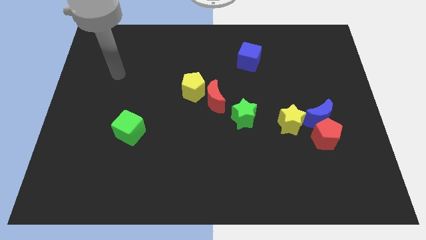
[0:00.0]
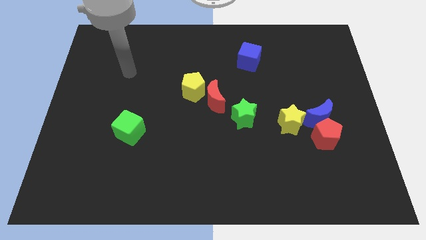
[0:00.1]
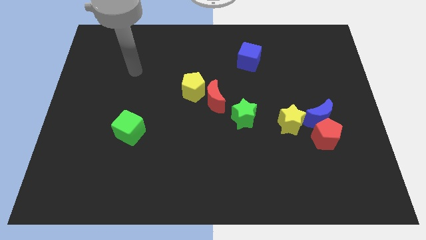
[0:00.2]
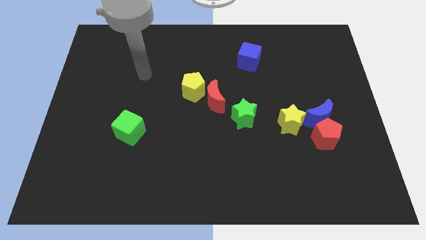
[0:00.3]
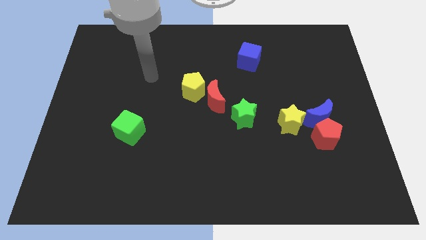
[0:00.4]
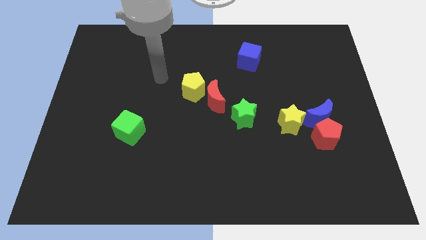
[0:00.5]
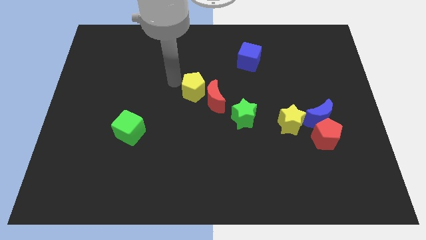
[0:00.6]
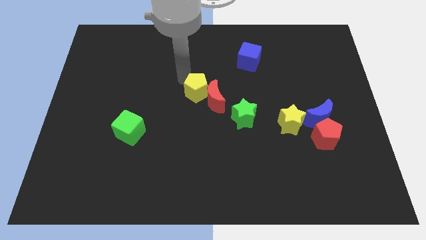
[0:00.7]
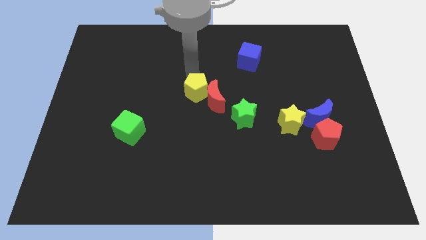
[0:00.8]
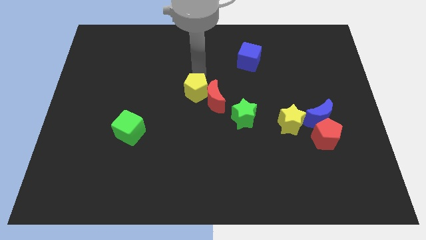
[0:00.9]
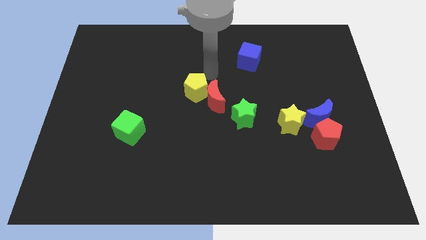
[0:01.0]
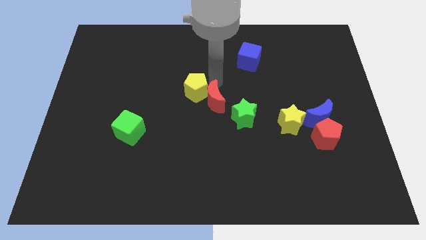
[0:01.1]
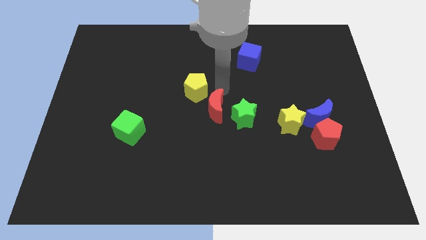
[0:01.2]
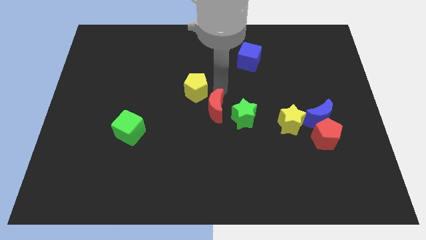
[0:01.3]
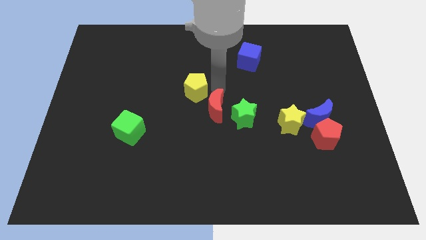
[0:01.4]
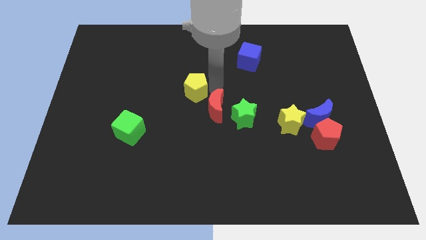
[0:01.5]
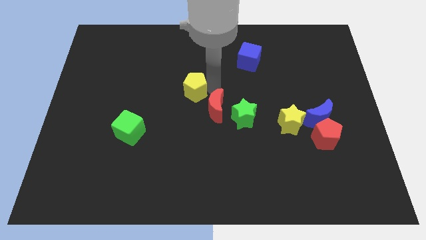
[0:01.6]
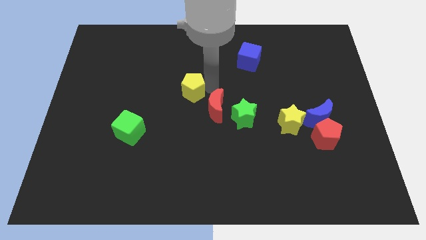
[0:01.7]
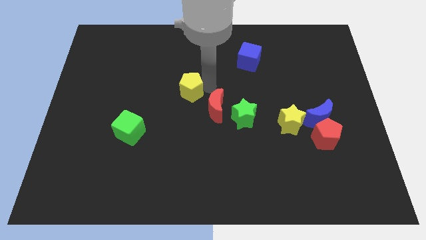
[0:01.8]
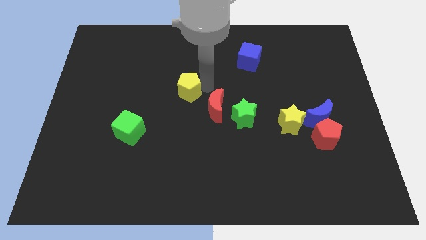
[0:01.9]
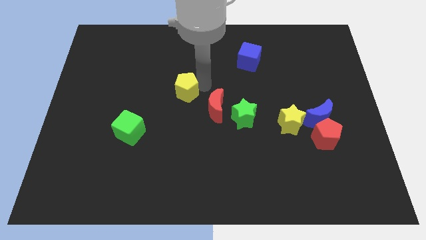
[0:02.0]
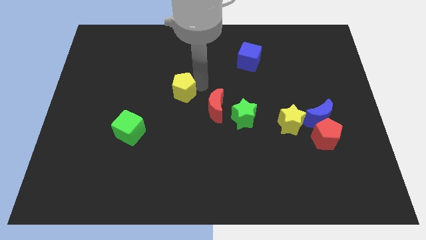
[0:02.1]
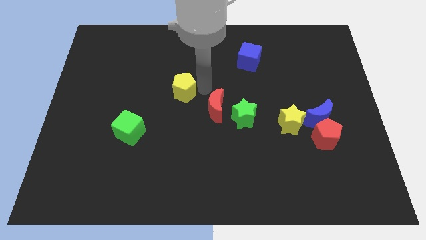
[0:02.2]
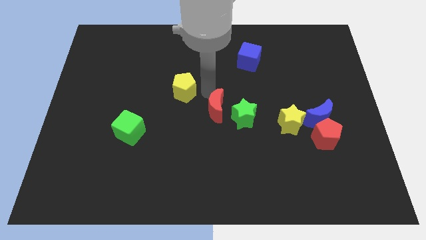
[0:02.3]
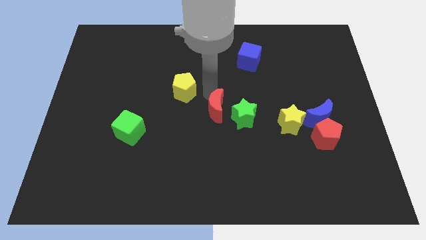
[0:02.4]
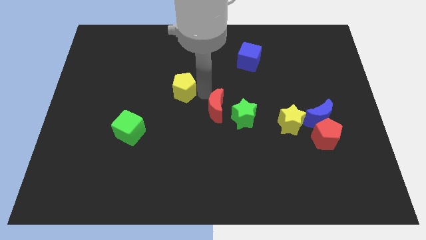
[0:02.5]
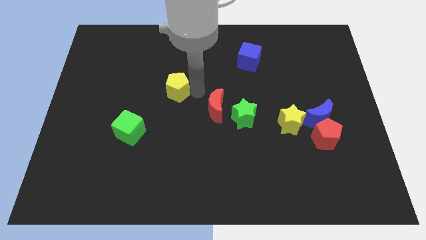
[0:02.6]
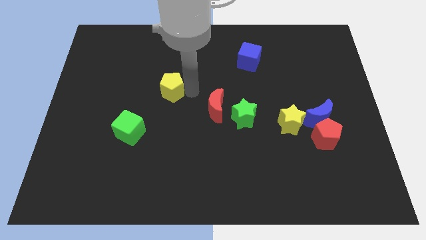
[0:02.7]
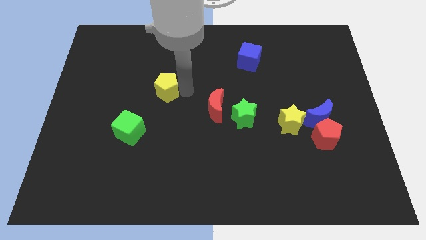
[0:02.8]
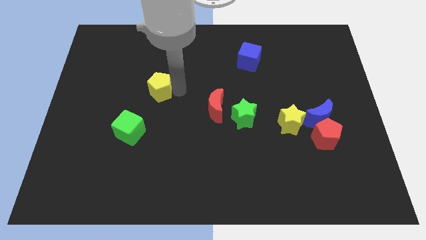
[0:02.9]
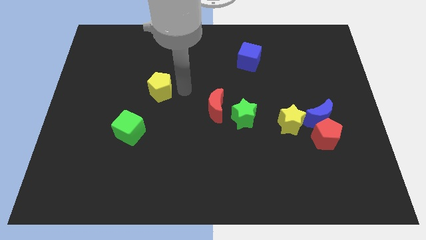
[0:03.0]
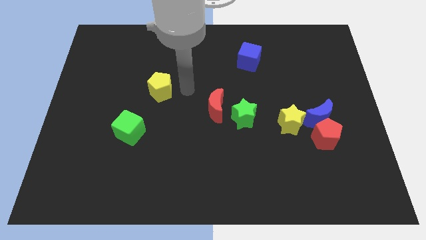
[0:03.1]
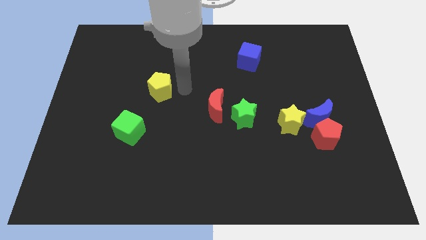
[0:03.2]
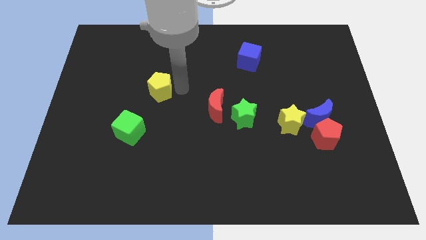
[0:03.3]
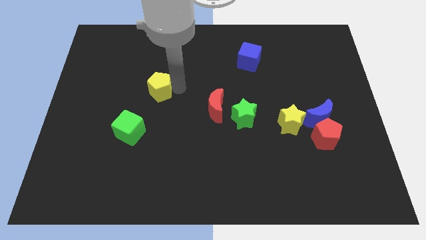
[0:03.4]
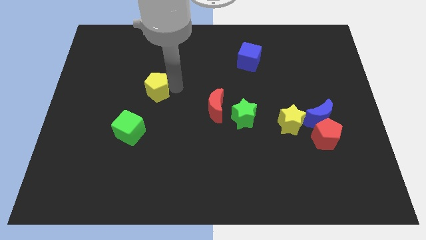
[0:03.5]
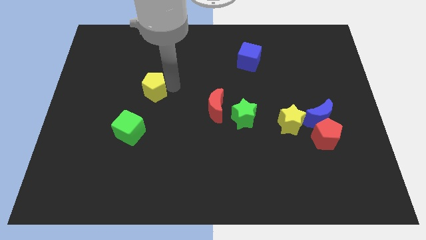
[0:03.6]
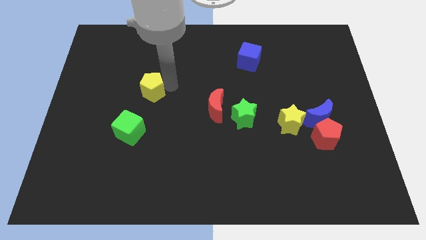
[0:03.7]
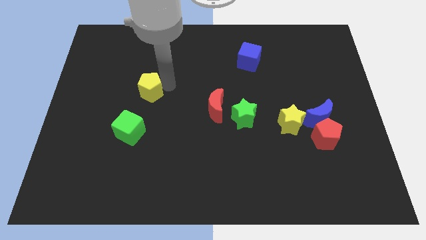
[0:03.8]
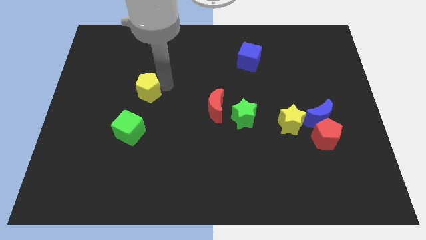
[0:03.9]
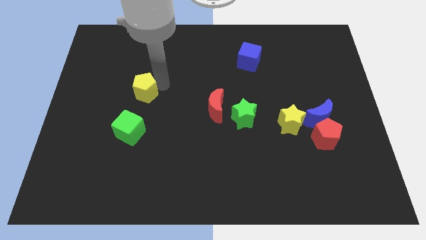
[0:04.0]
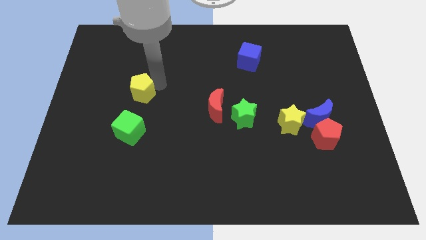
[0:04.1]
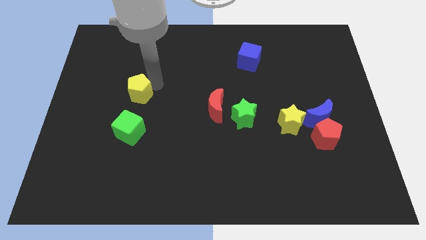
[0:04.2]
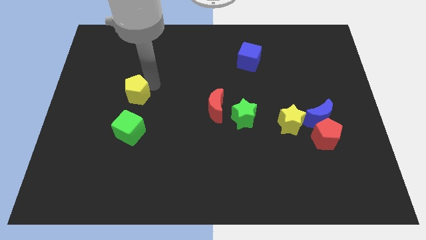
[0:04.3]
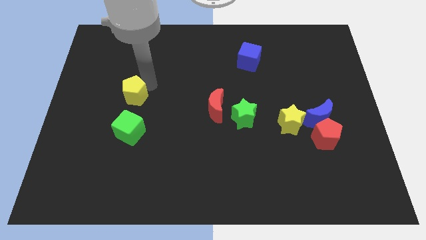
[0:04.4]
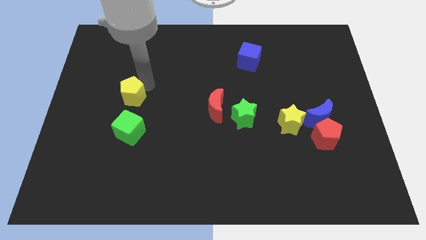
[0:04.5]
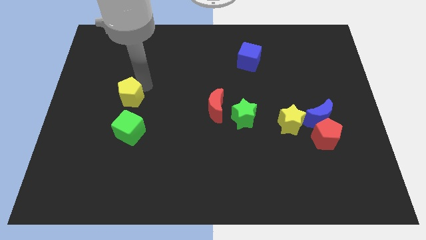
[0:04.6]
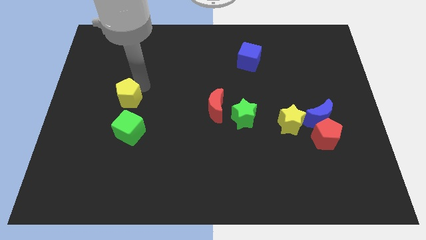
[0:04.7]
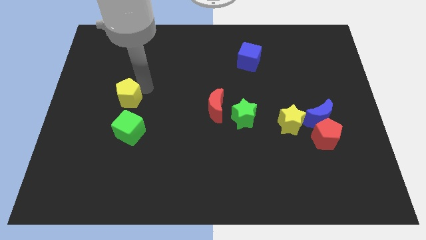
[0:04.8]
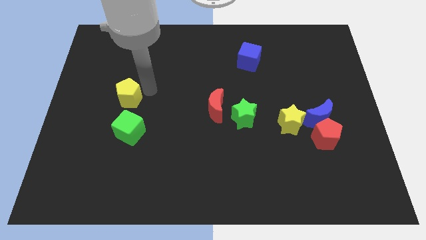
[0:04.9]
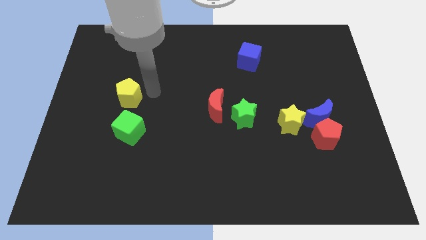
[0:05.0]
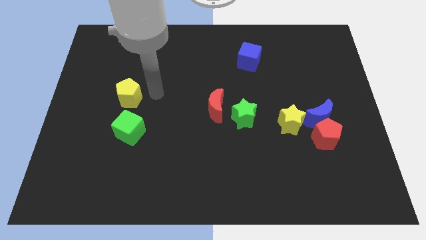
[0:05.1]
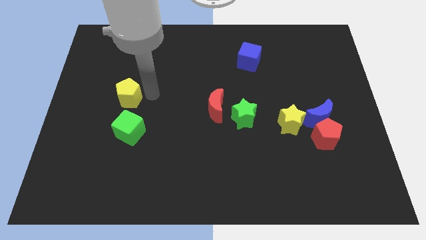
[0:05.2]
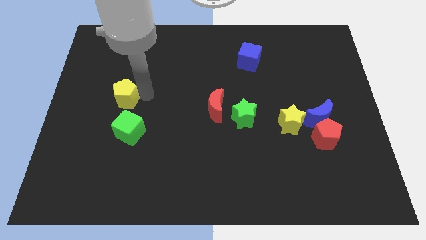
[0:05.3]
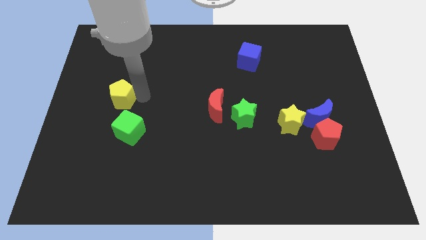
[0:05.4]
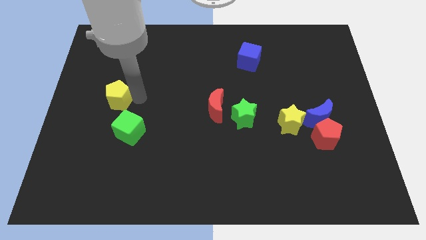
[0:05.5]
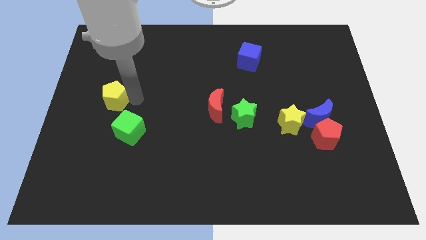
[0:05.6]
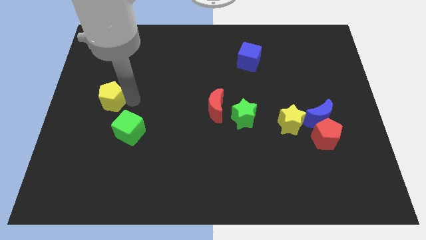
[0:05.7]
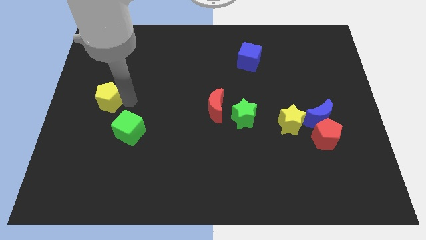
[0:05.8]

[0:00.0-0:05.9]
move the yellow pentagon to the center left
